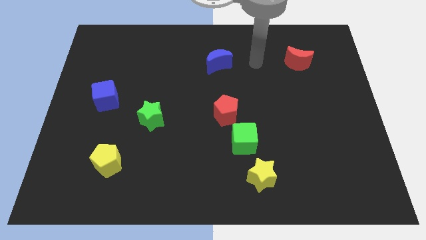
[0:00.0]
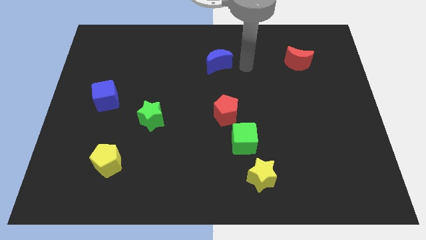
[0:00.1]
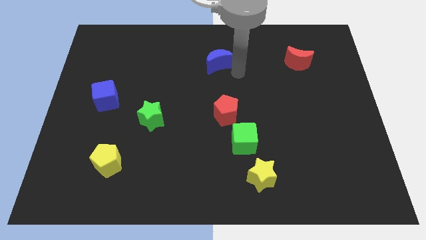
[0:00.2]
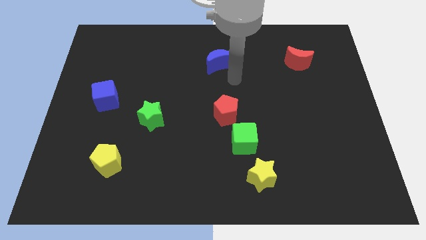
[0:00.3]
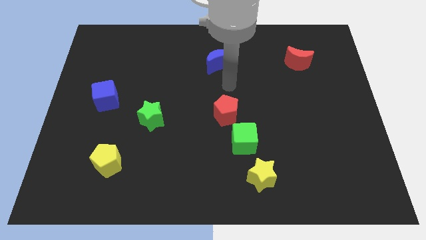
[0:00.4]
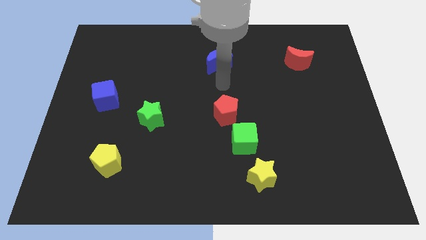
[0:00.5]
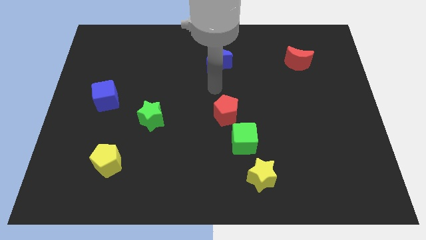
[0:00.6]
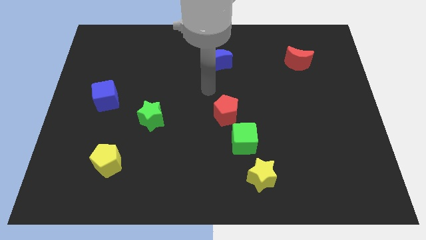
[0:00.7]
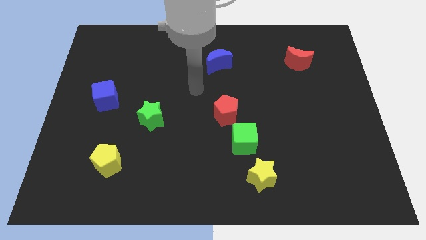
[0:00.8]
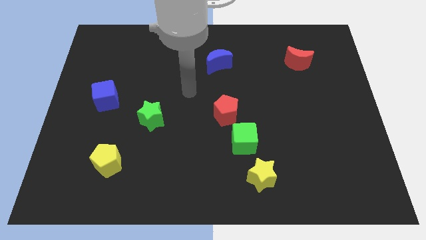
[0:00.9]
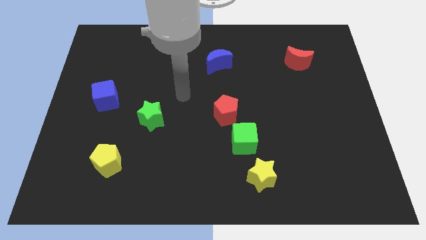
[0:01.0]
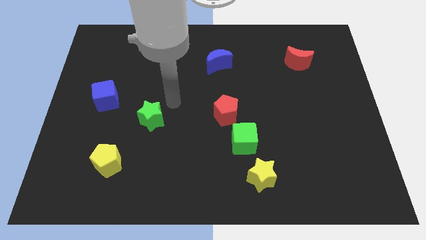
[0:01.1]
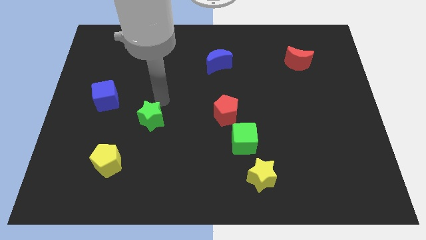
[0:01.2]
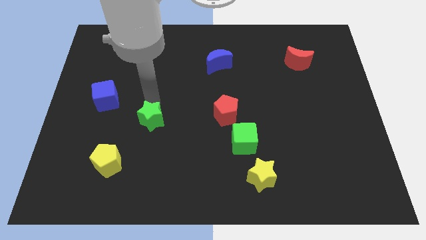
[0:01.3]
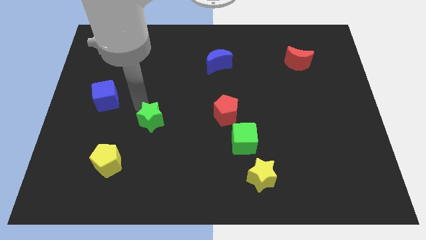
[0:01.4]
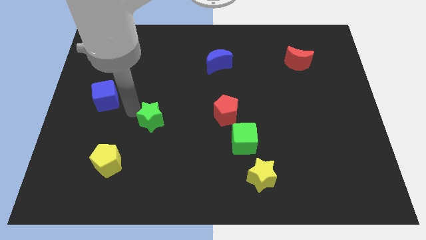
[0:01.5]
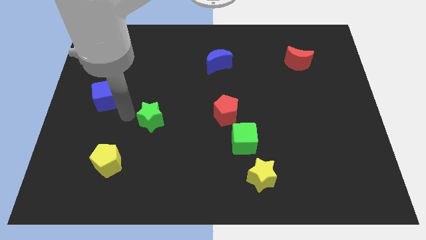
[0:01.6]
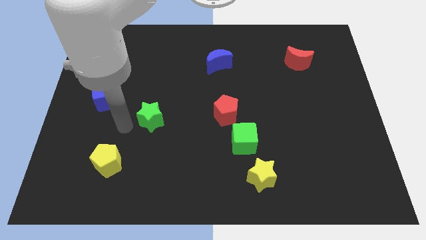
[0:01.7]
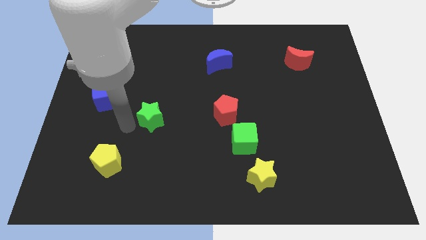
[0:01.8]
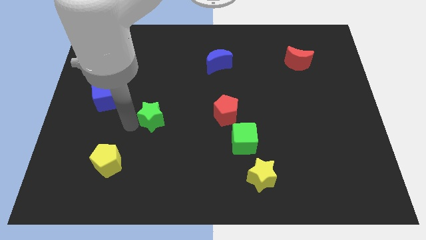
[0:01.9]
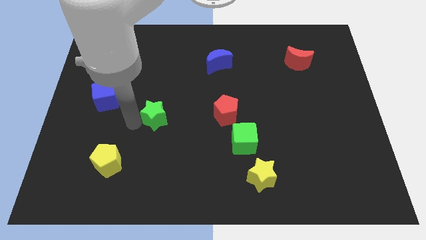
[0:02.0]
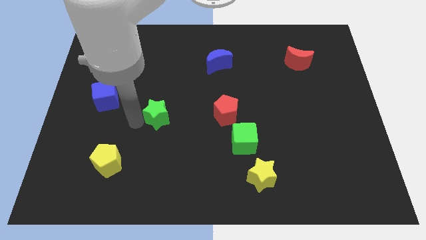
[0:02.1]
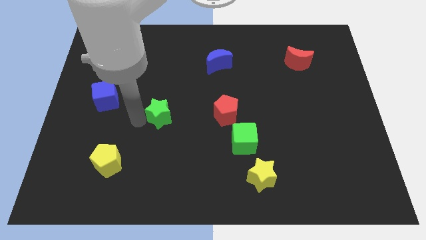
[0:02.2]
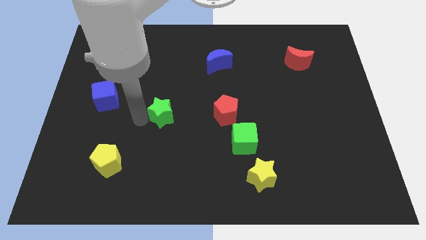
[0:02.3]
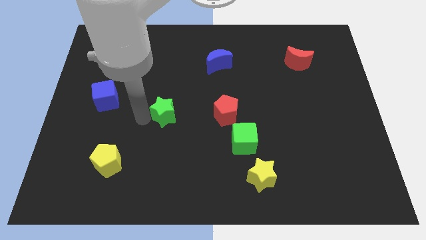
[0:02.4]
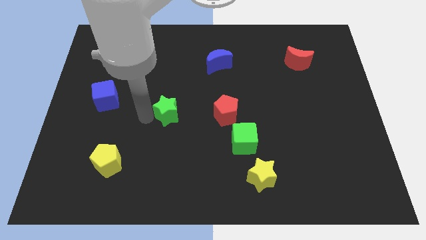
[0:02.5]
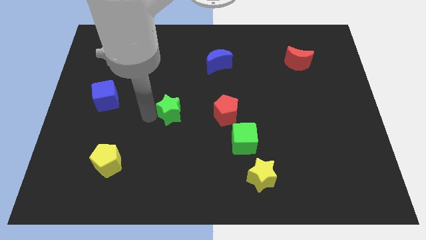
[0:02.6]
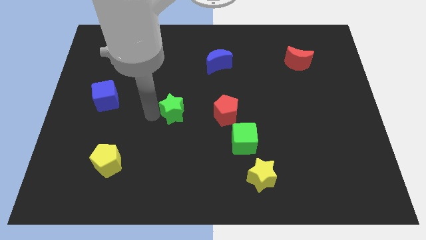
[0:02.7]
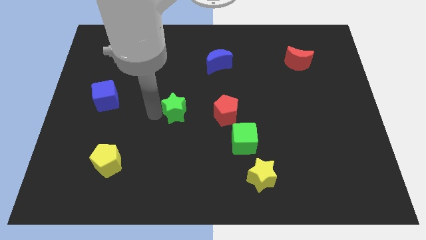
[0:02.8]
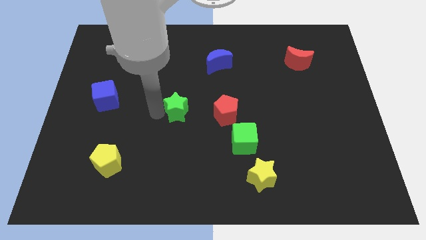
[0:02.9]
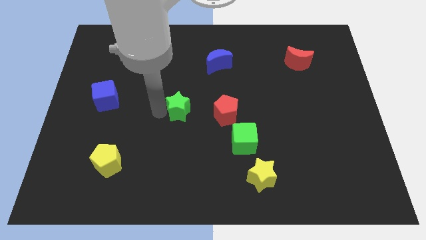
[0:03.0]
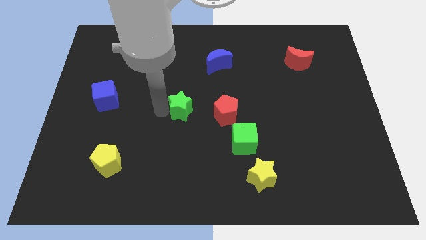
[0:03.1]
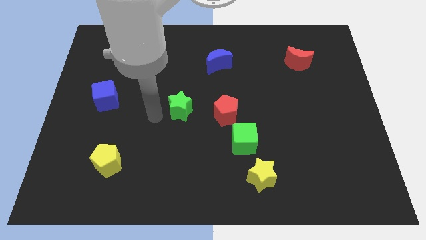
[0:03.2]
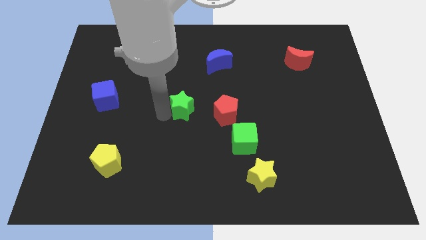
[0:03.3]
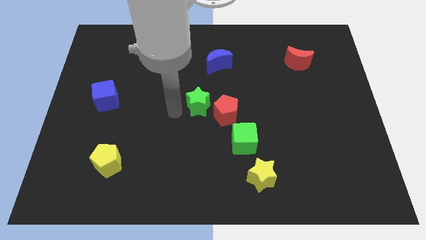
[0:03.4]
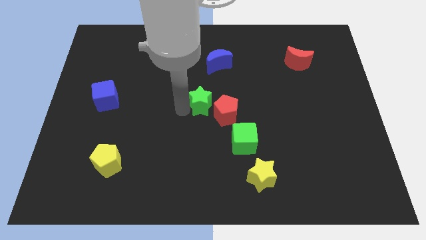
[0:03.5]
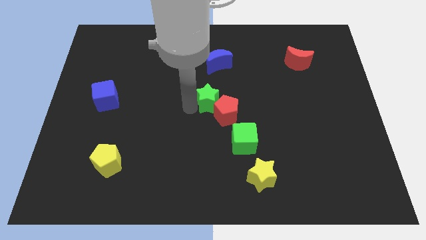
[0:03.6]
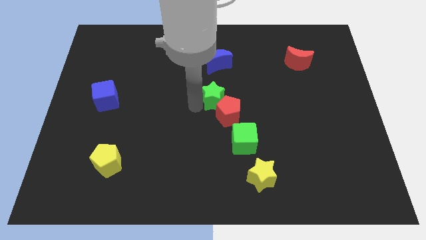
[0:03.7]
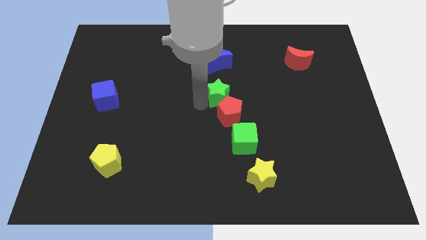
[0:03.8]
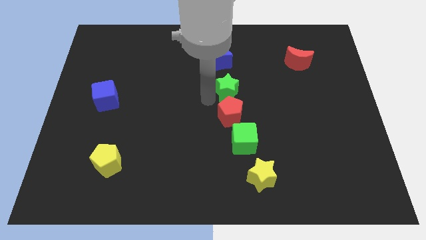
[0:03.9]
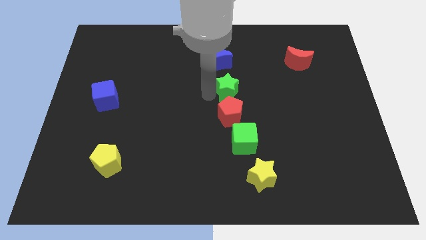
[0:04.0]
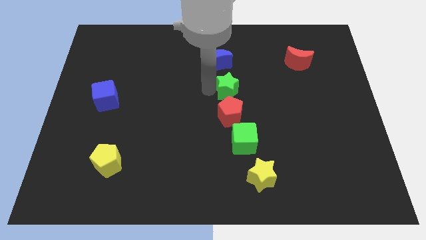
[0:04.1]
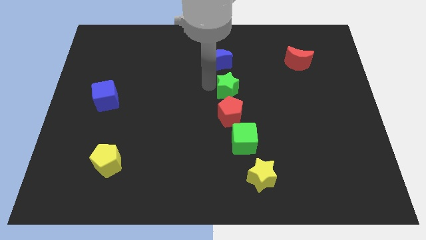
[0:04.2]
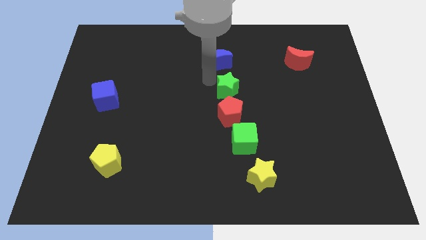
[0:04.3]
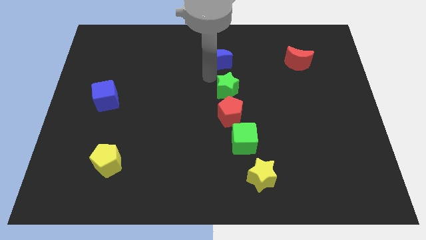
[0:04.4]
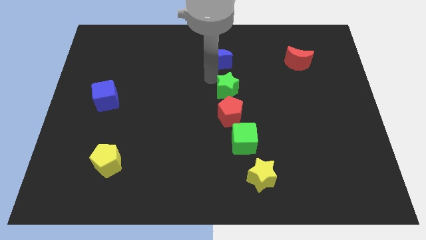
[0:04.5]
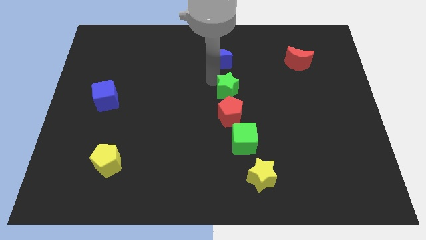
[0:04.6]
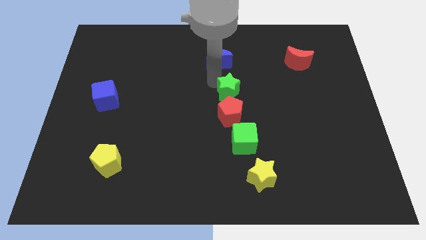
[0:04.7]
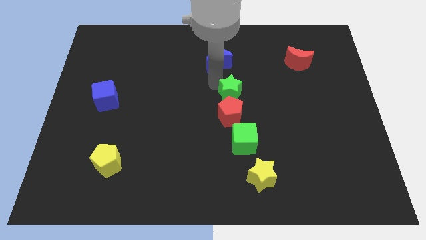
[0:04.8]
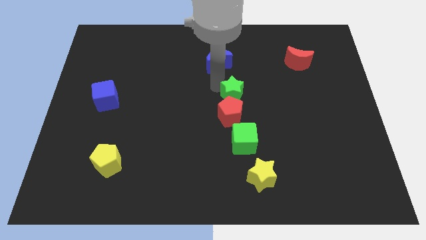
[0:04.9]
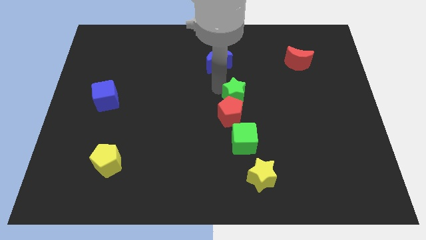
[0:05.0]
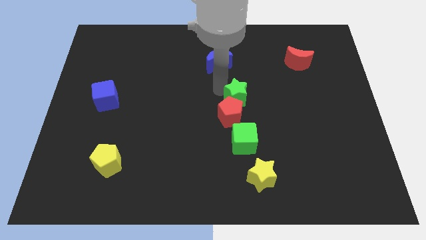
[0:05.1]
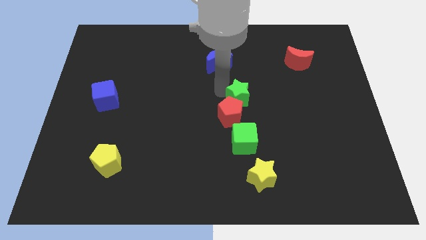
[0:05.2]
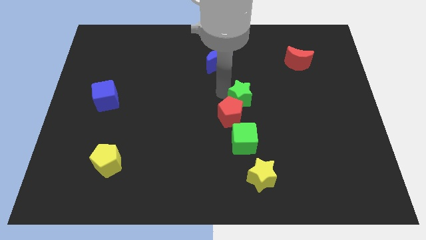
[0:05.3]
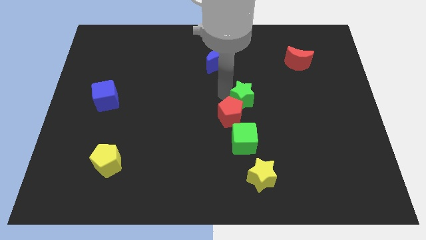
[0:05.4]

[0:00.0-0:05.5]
slide the green star to the right

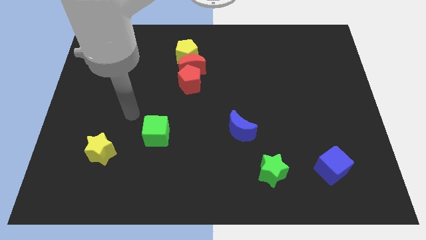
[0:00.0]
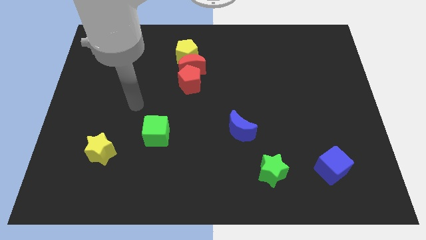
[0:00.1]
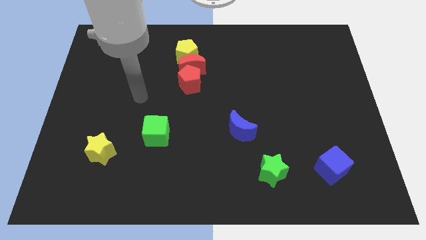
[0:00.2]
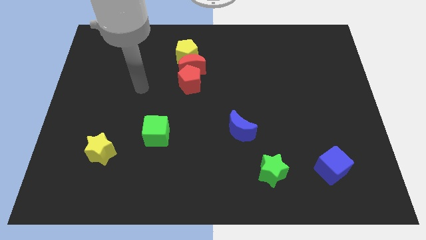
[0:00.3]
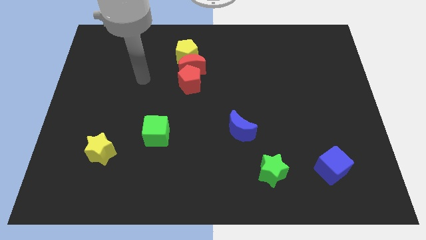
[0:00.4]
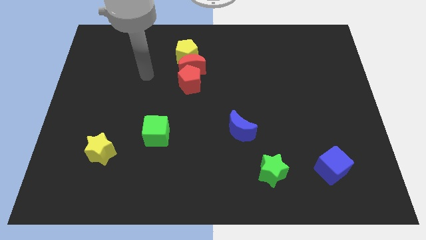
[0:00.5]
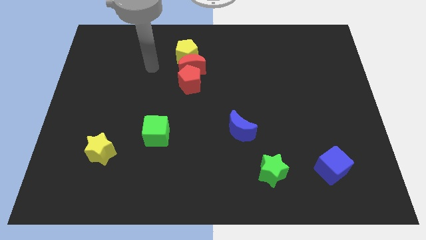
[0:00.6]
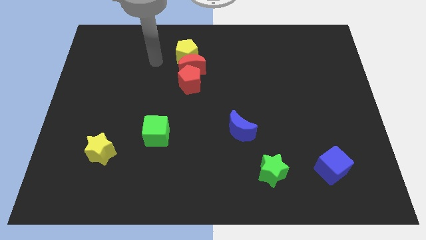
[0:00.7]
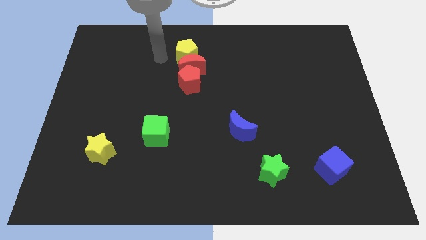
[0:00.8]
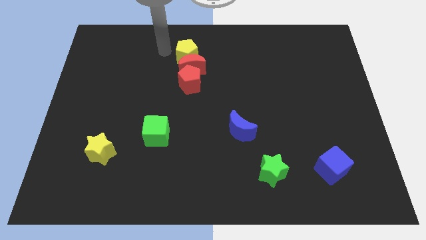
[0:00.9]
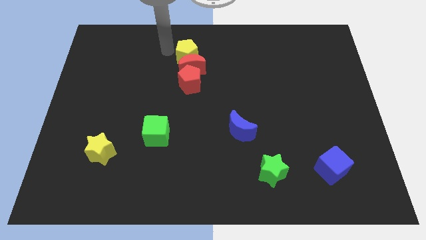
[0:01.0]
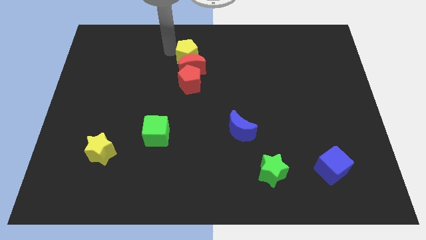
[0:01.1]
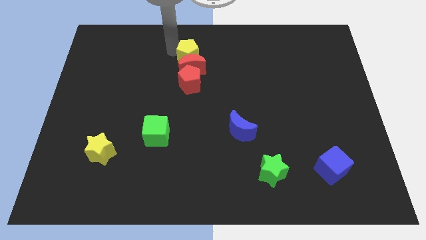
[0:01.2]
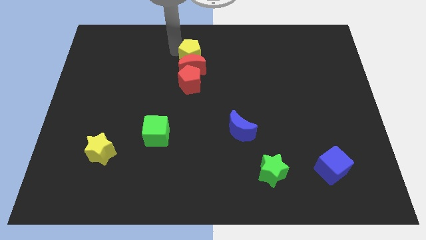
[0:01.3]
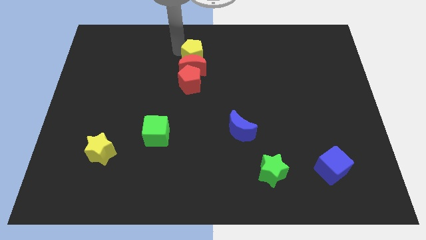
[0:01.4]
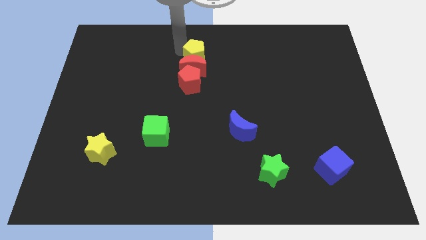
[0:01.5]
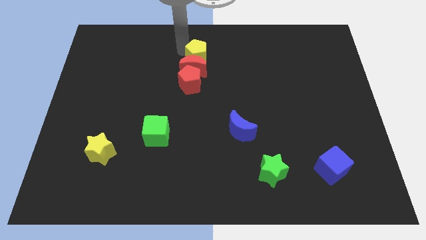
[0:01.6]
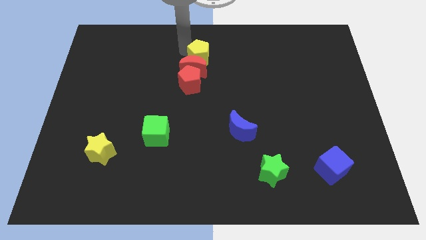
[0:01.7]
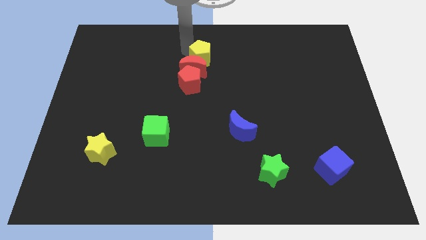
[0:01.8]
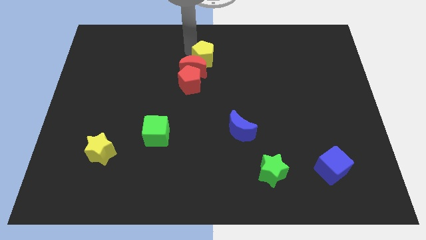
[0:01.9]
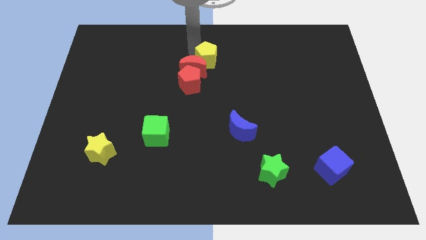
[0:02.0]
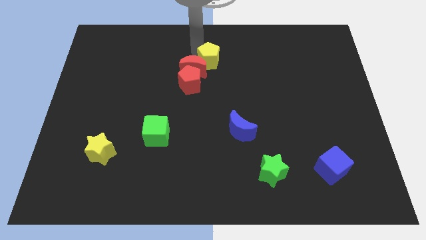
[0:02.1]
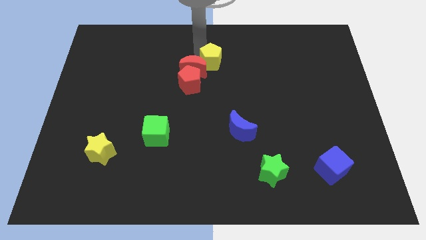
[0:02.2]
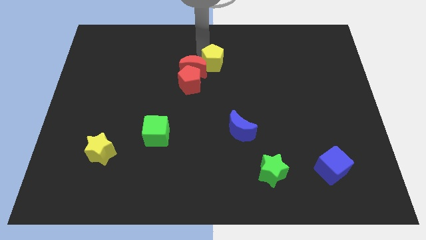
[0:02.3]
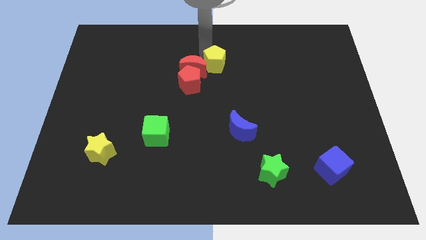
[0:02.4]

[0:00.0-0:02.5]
move the yellow pentagon somewhat downwards and right diagonally

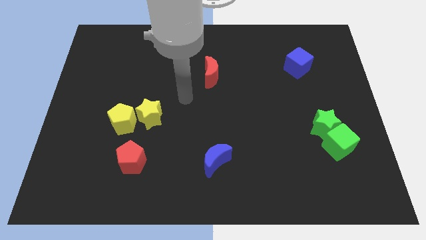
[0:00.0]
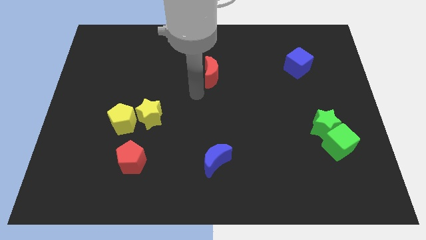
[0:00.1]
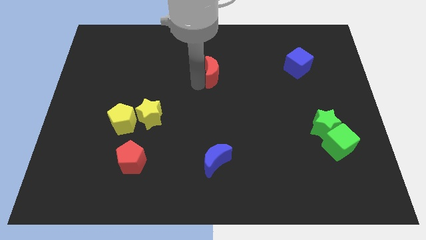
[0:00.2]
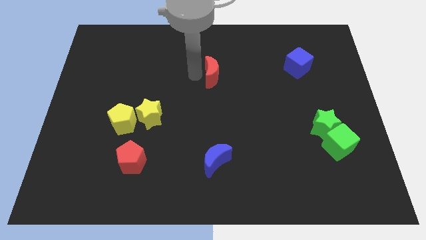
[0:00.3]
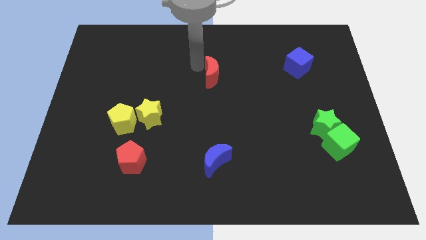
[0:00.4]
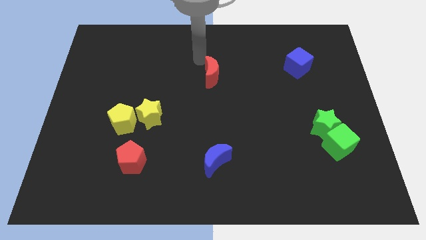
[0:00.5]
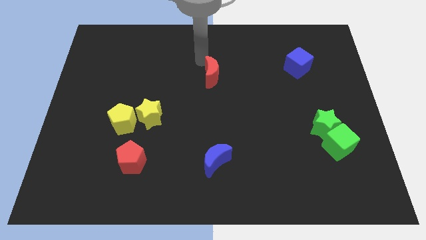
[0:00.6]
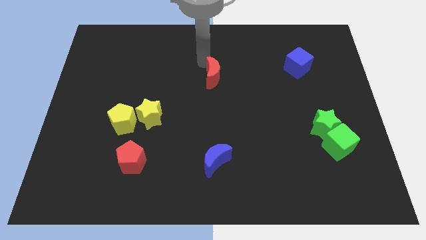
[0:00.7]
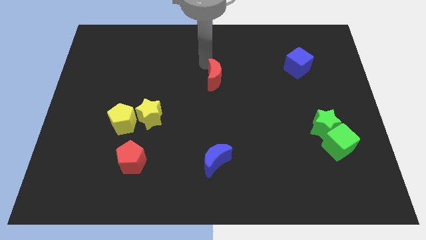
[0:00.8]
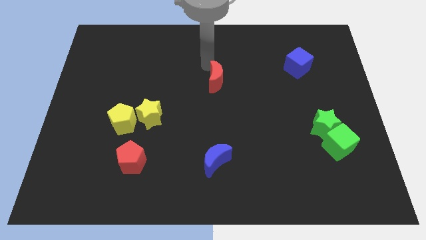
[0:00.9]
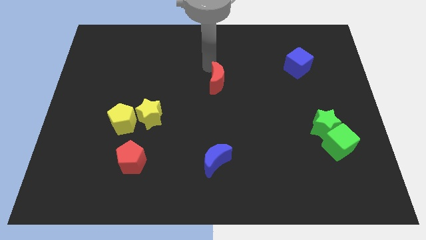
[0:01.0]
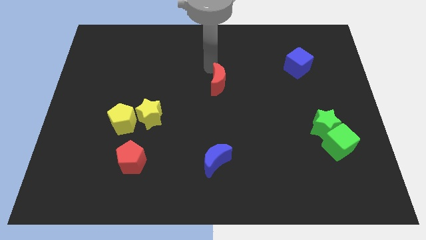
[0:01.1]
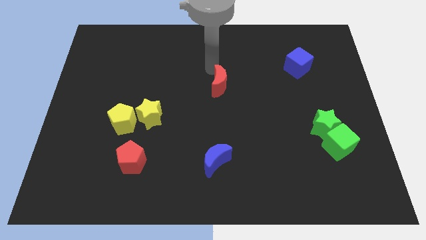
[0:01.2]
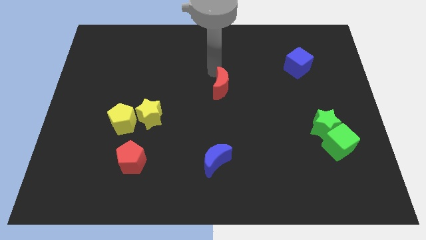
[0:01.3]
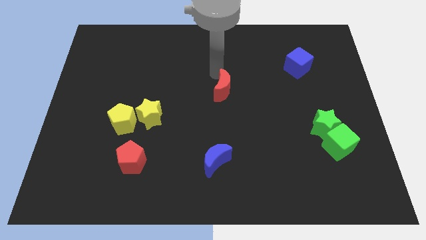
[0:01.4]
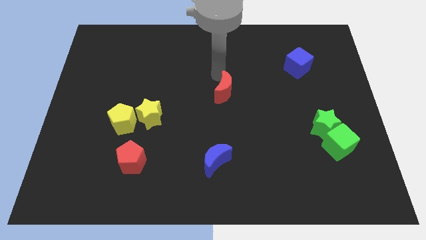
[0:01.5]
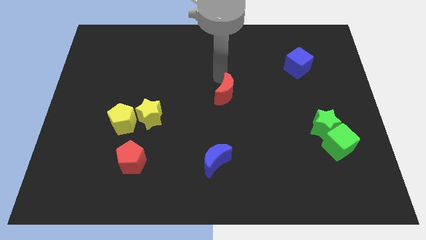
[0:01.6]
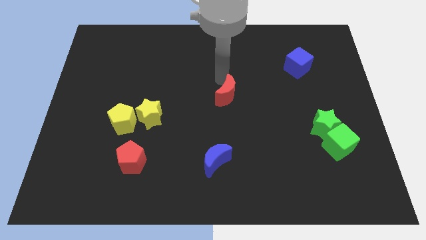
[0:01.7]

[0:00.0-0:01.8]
slightly move the red moon downwards and then to the right
